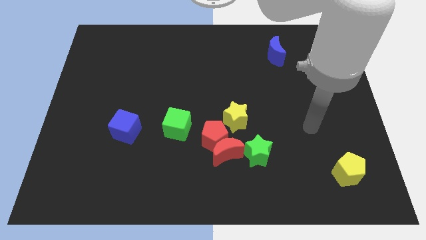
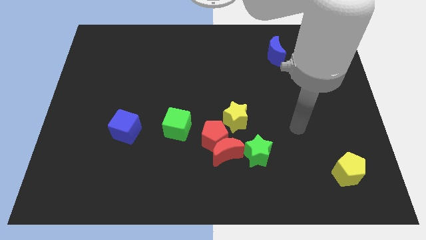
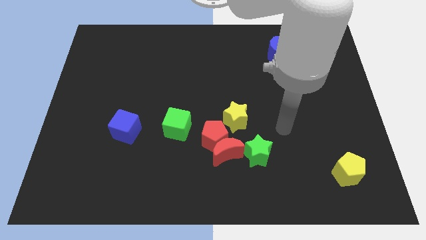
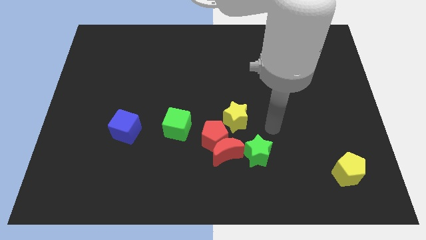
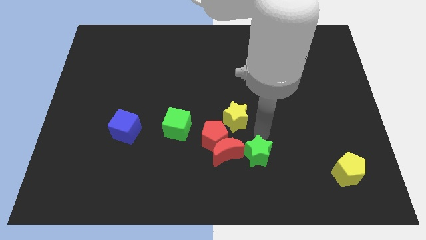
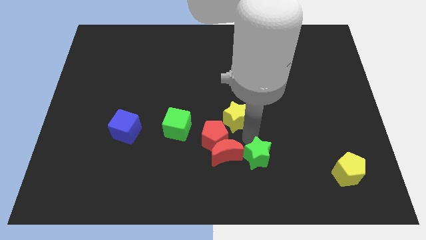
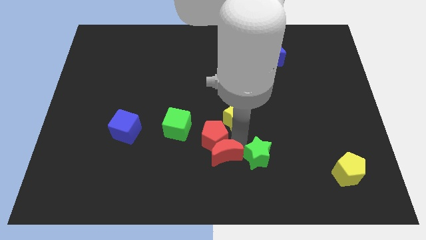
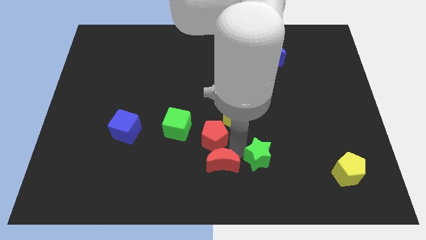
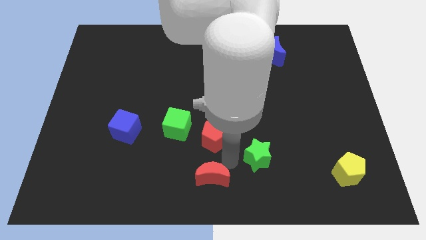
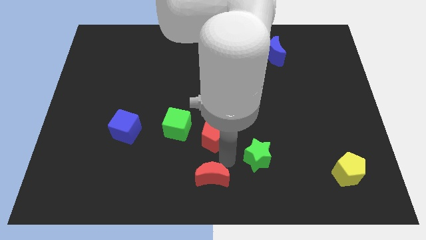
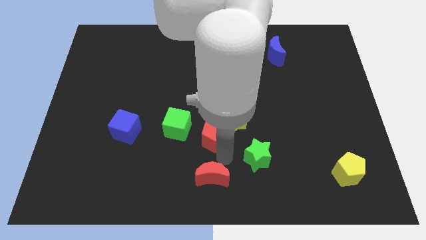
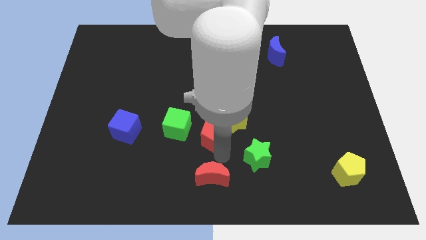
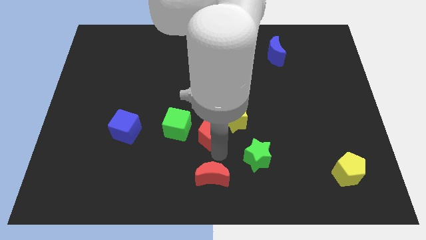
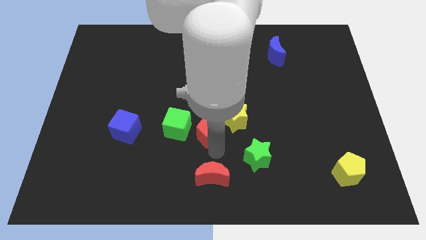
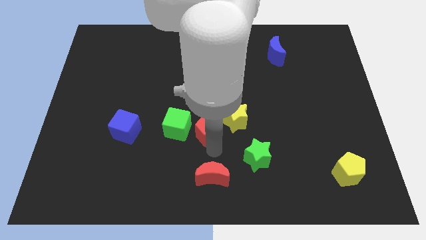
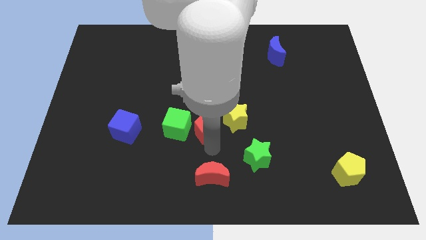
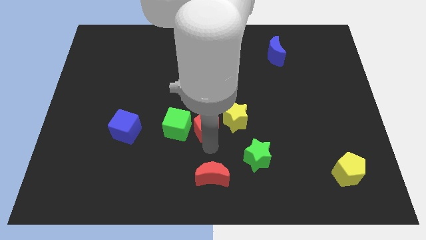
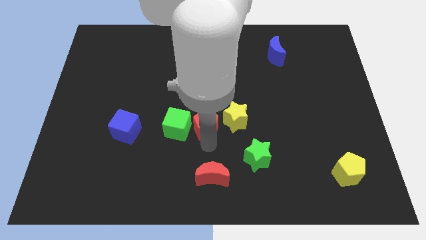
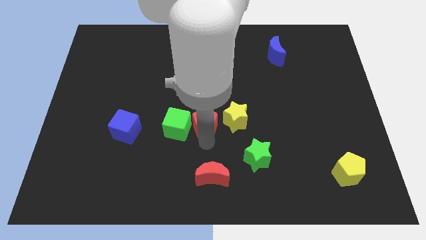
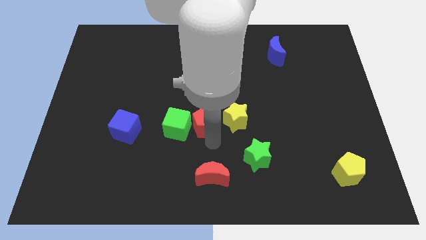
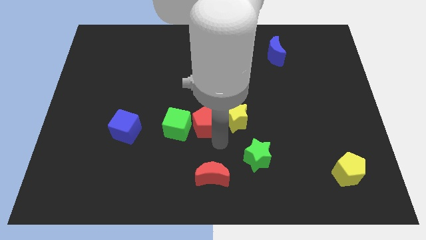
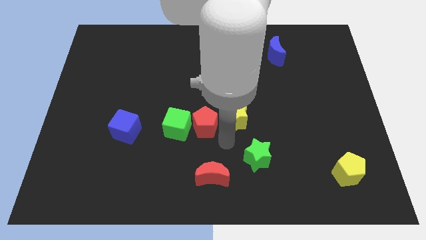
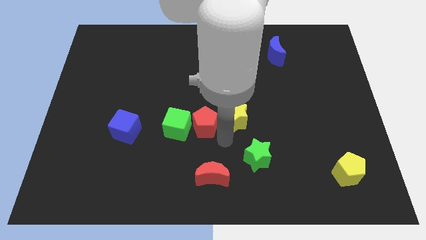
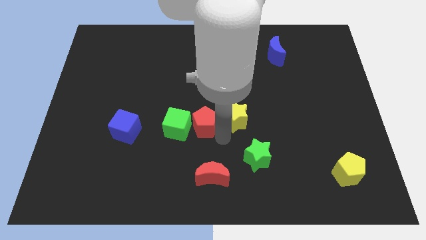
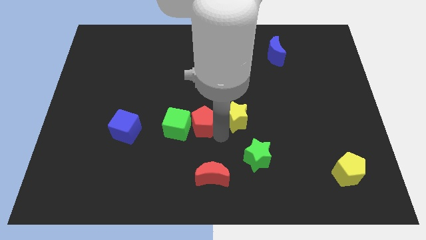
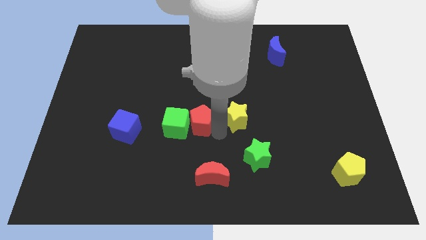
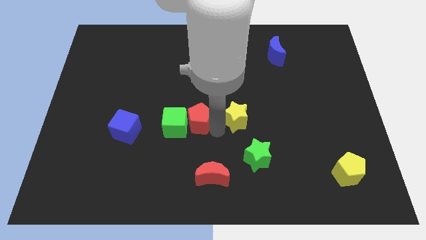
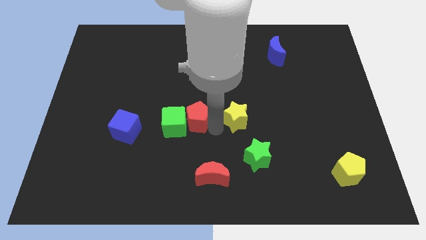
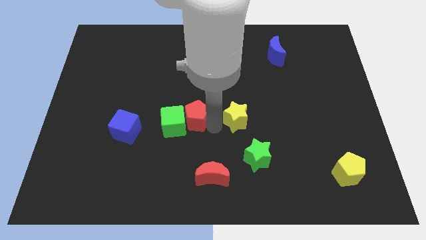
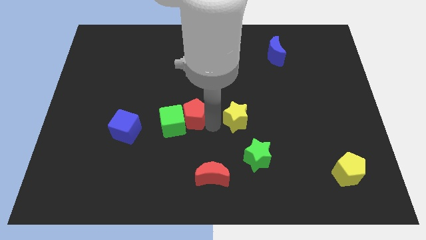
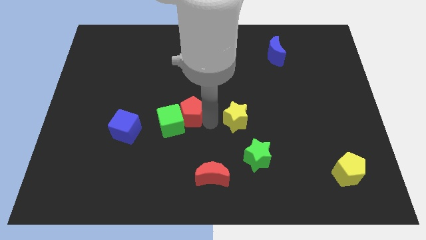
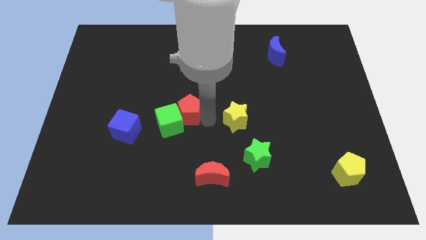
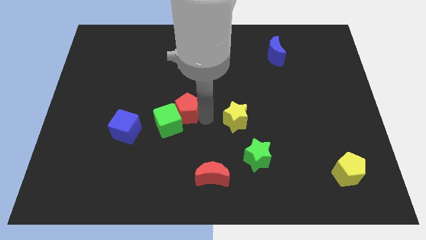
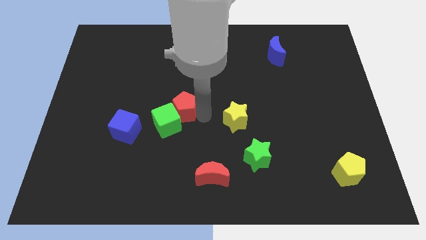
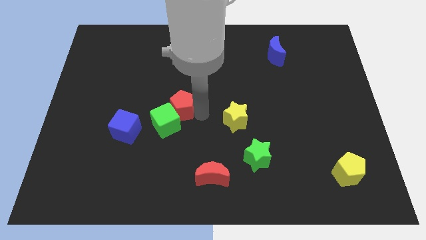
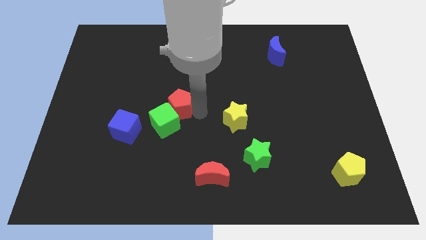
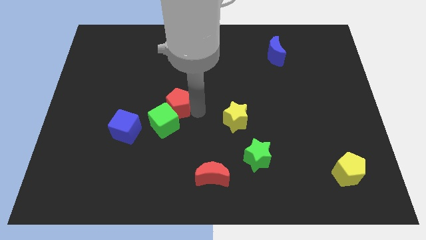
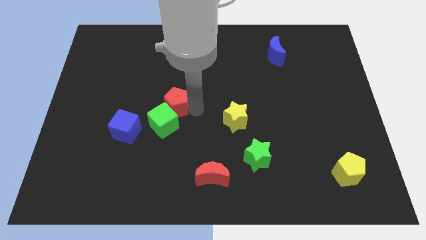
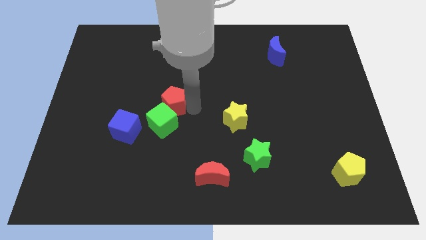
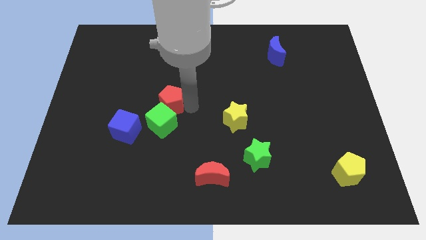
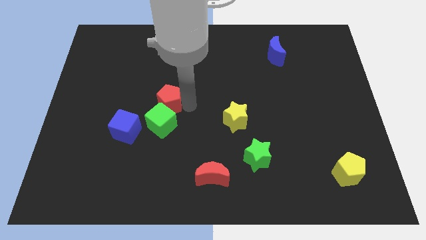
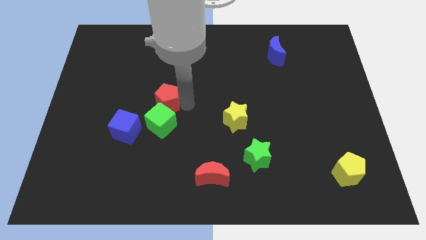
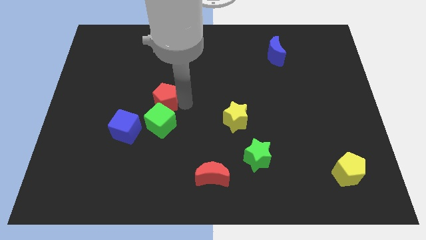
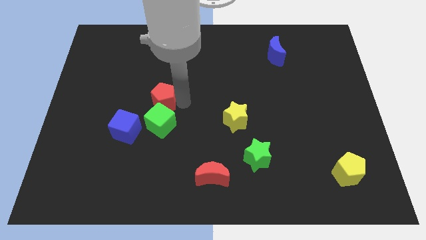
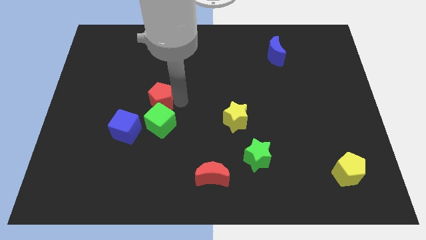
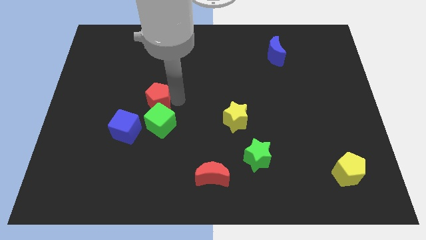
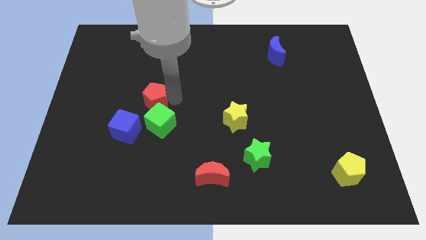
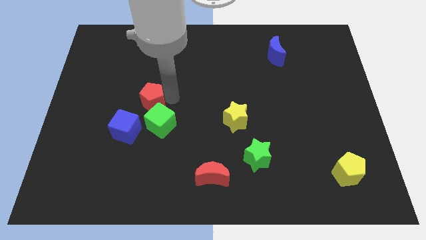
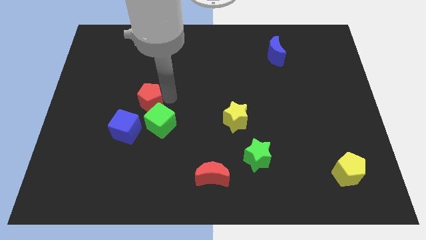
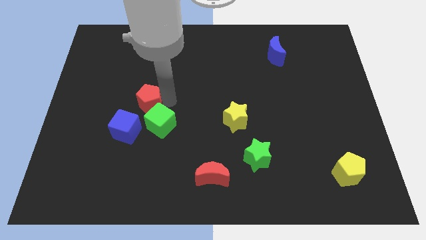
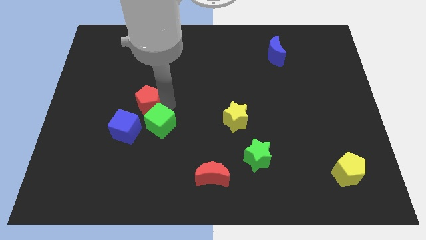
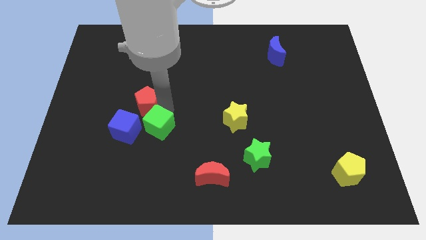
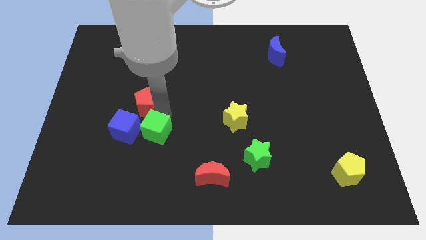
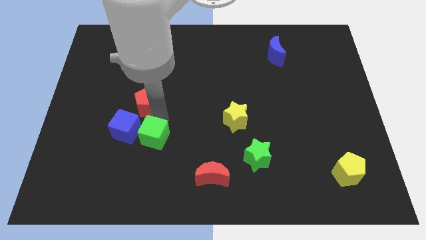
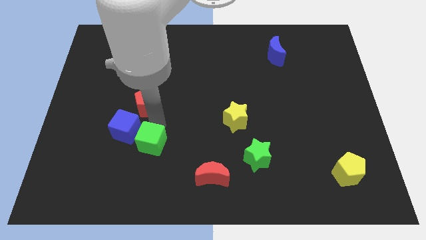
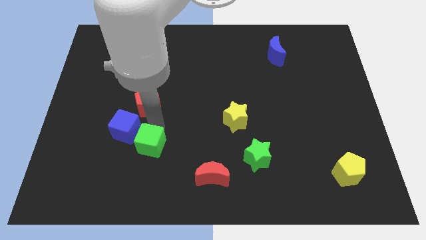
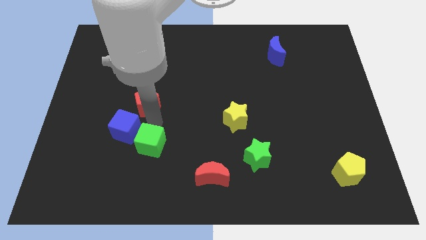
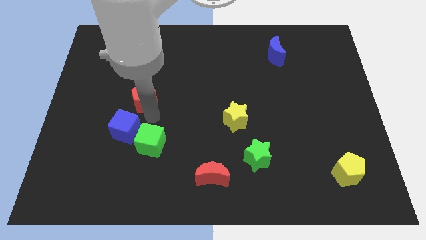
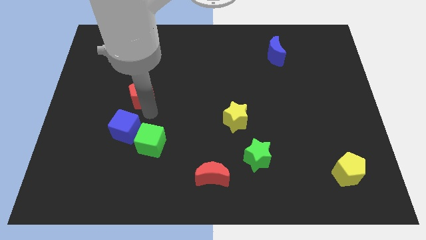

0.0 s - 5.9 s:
push the red pentagon upwards and left diagonally

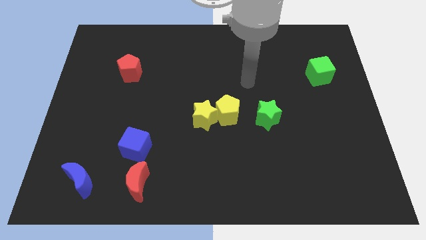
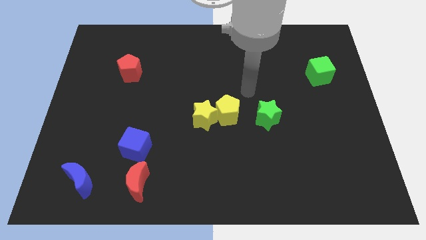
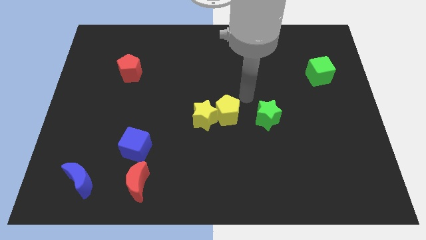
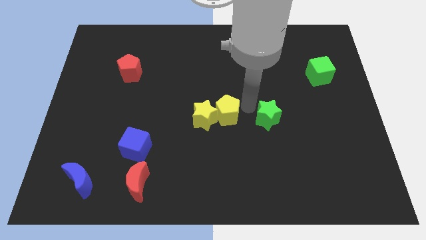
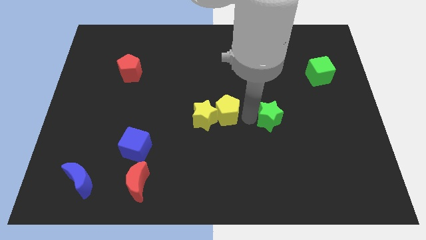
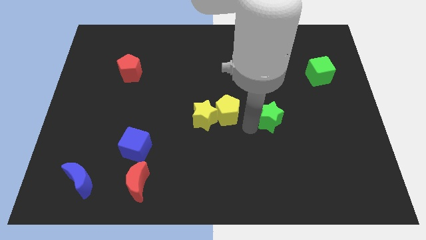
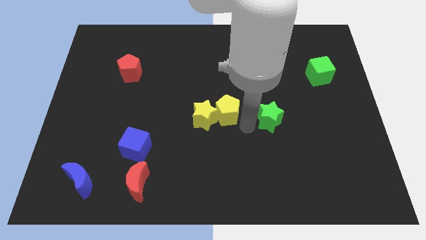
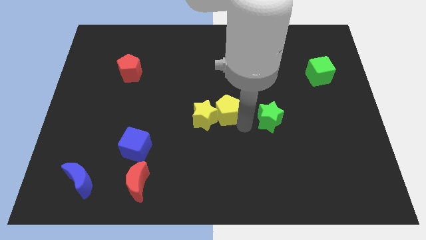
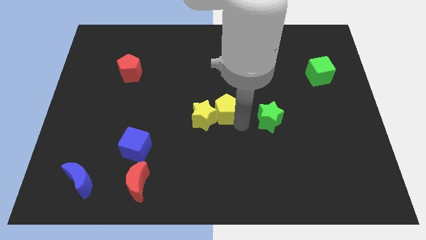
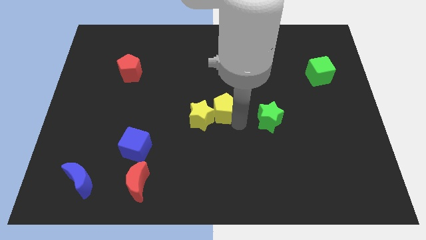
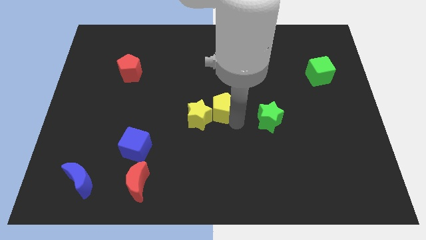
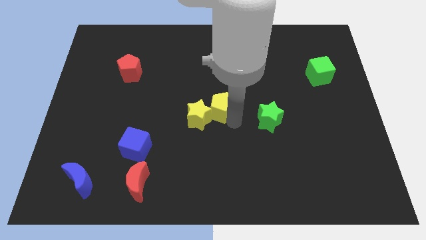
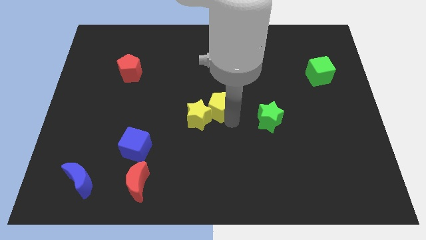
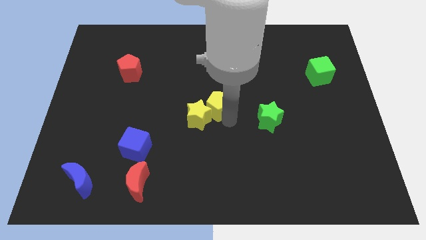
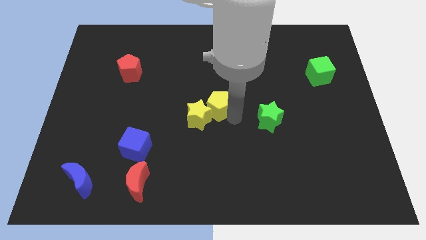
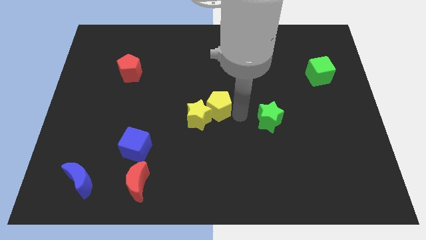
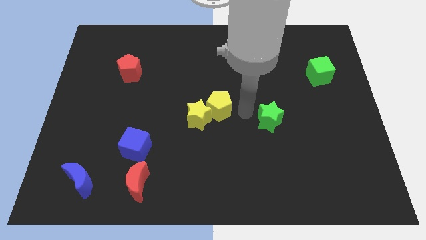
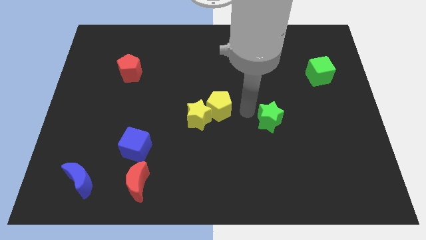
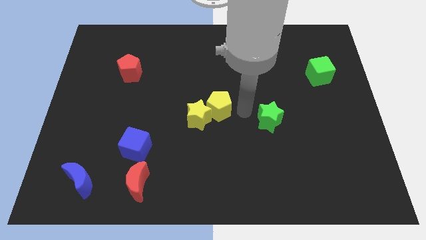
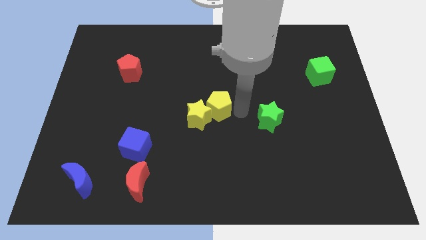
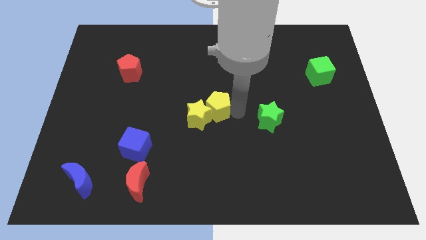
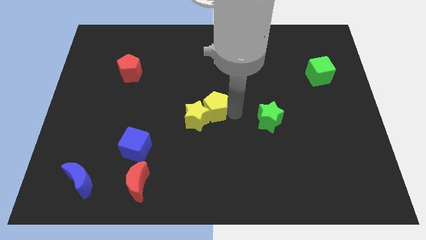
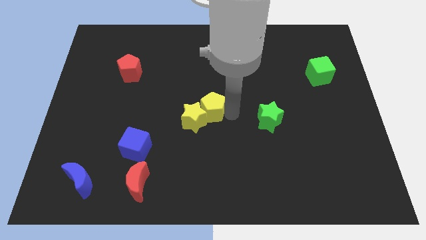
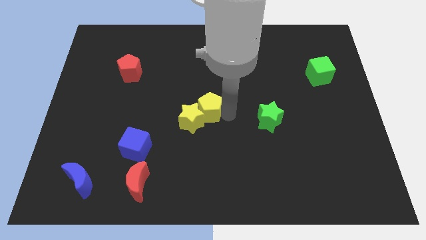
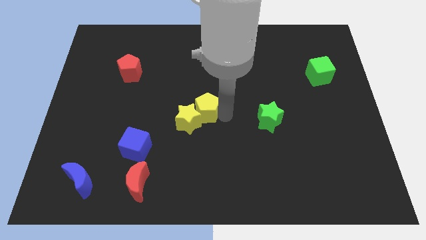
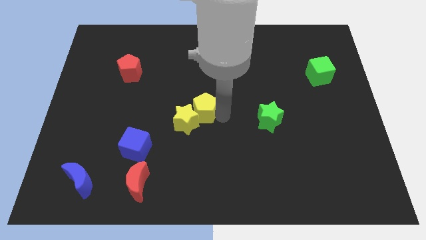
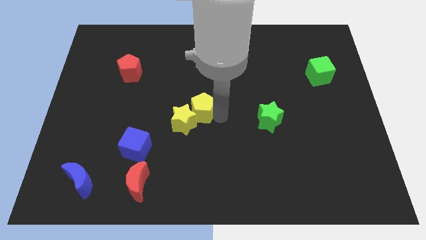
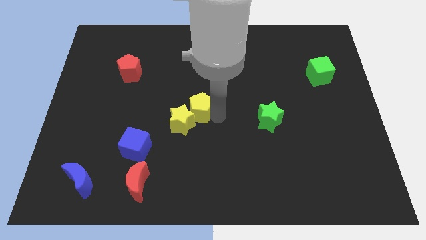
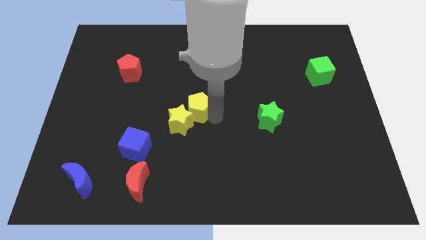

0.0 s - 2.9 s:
slightly push the yellow pentagon left
